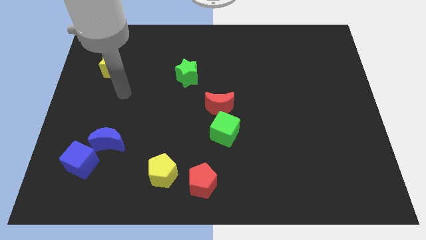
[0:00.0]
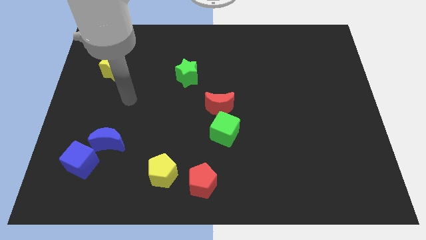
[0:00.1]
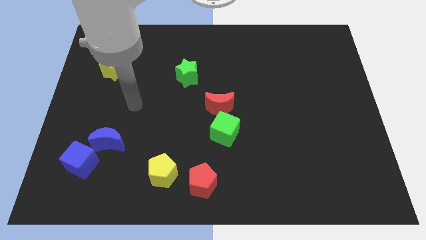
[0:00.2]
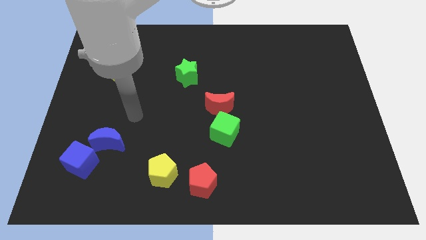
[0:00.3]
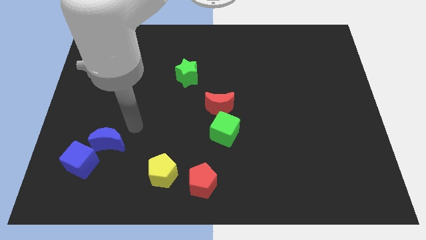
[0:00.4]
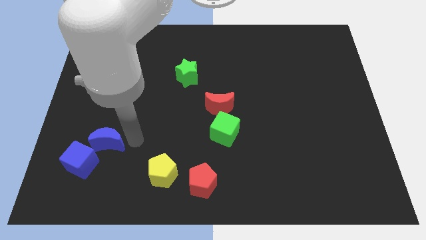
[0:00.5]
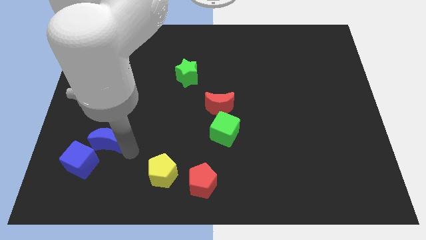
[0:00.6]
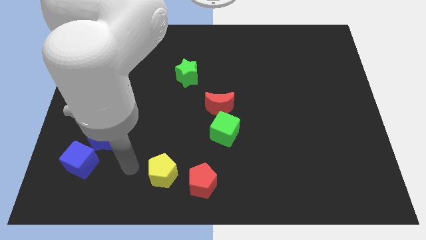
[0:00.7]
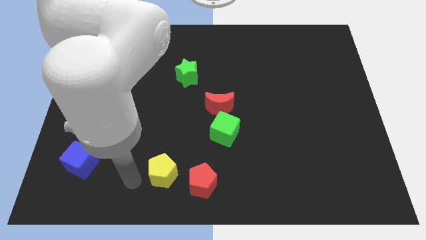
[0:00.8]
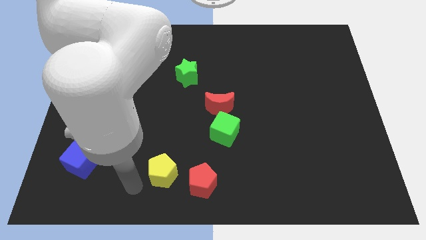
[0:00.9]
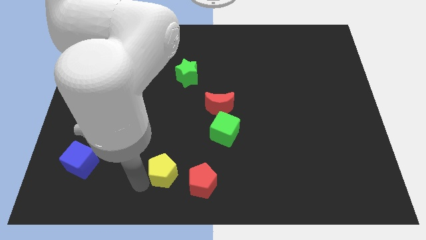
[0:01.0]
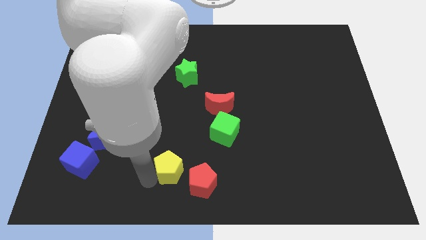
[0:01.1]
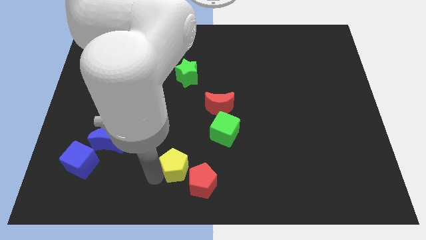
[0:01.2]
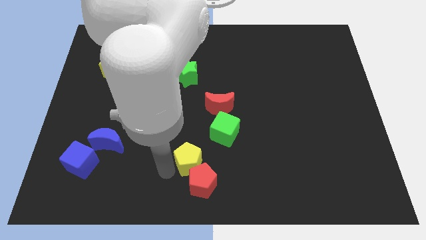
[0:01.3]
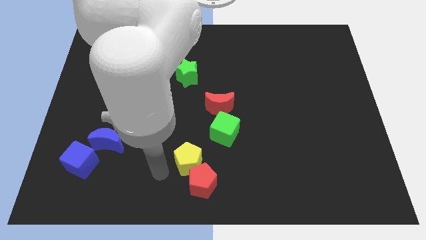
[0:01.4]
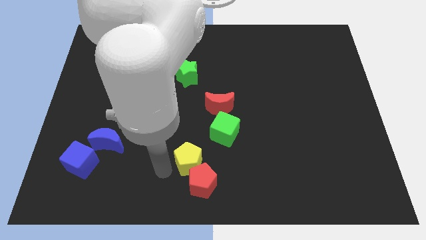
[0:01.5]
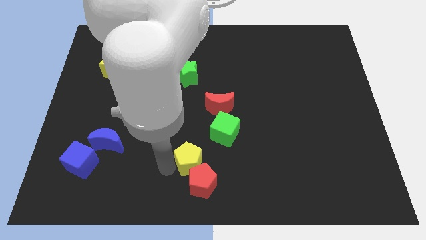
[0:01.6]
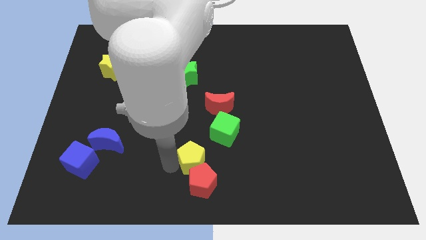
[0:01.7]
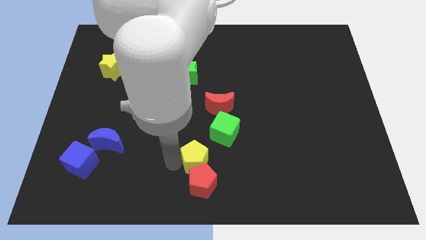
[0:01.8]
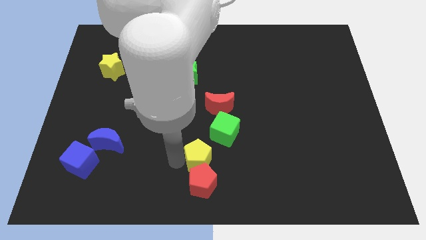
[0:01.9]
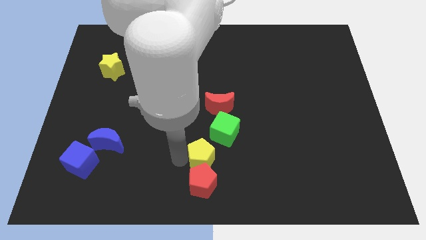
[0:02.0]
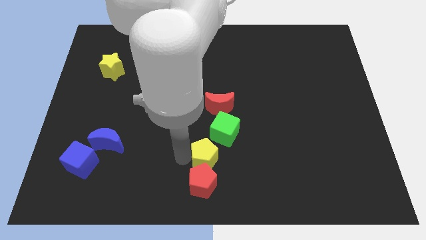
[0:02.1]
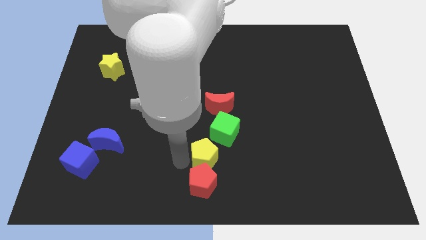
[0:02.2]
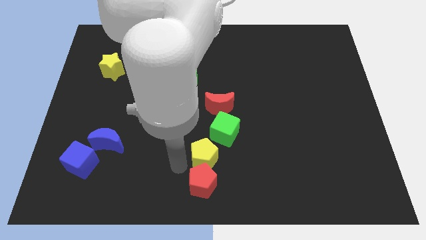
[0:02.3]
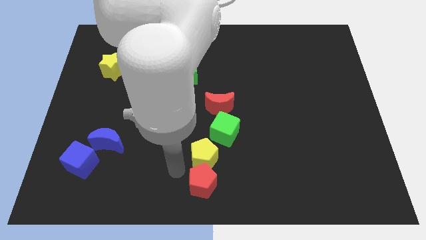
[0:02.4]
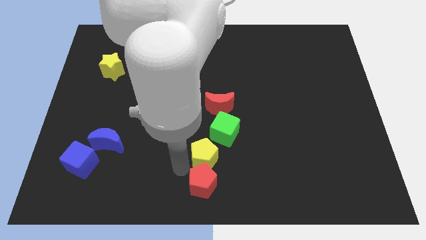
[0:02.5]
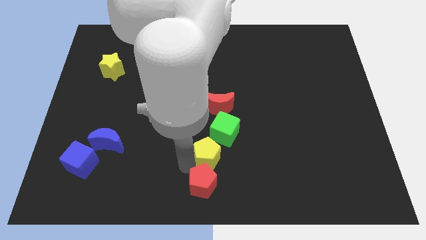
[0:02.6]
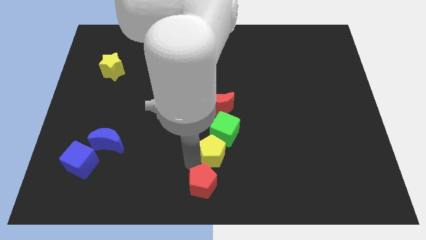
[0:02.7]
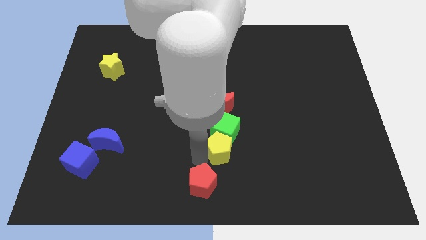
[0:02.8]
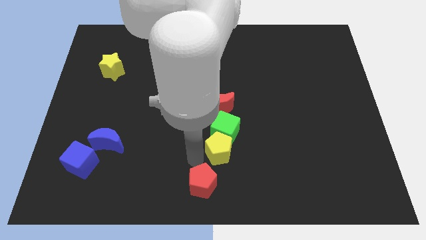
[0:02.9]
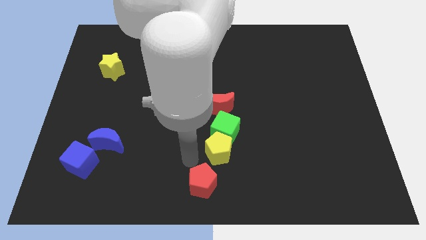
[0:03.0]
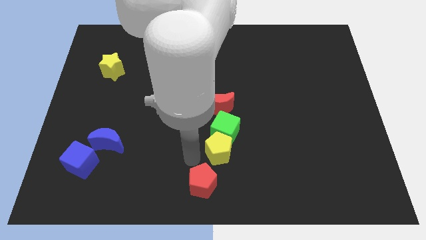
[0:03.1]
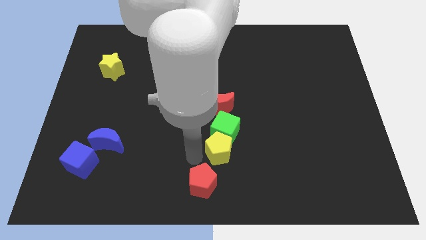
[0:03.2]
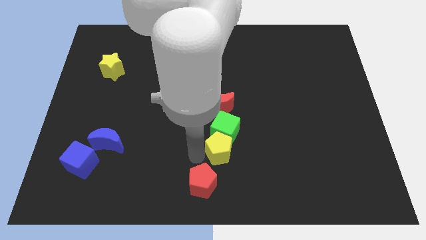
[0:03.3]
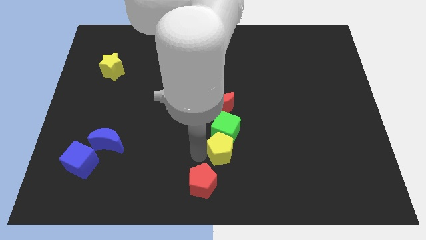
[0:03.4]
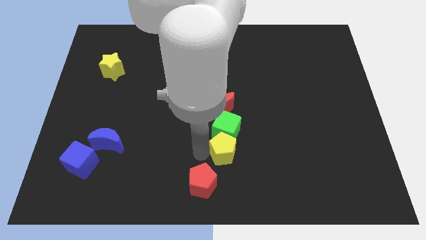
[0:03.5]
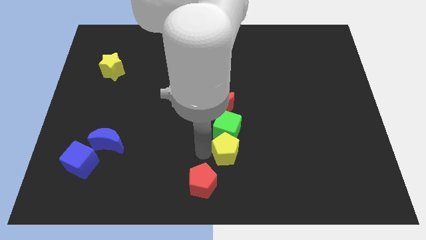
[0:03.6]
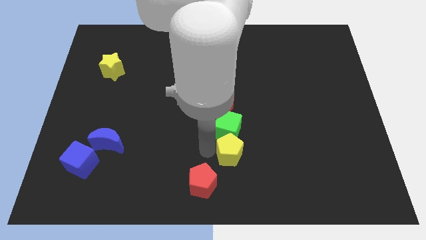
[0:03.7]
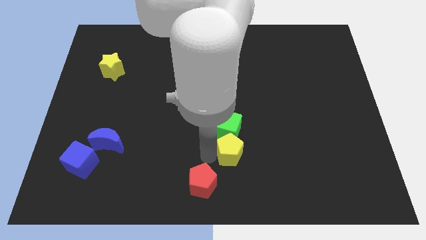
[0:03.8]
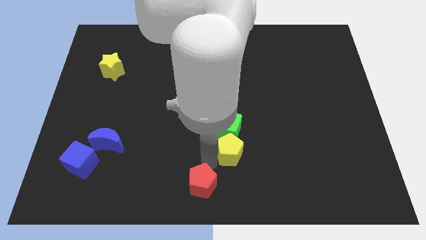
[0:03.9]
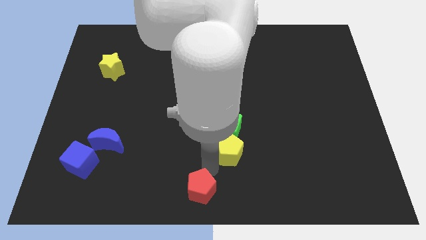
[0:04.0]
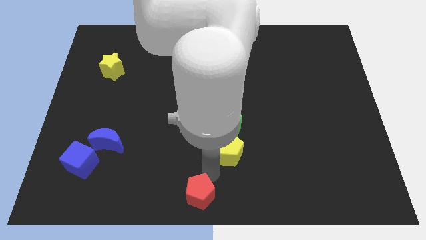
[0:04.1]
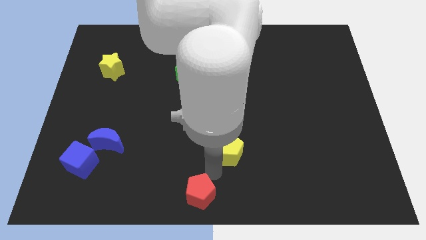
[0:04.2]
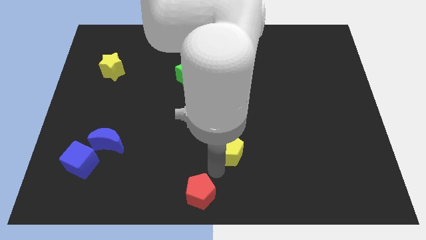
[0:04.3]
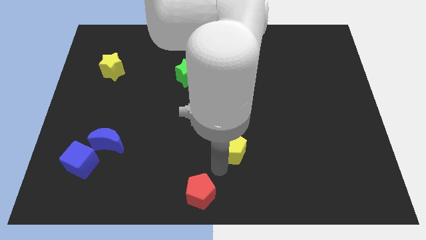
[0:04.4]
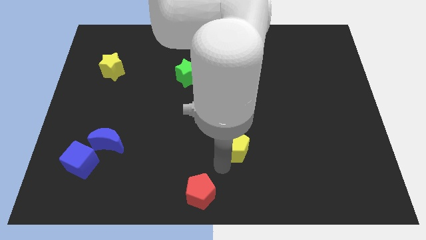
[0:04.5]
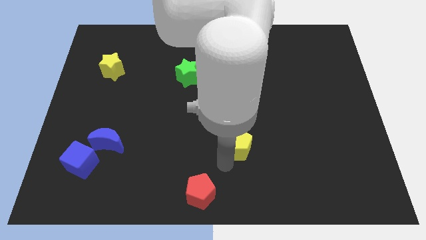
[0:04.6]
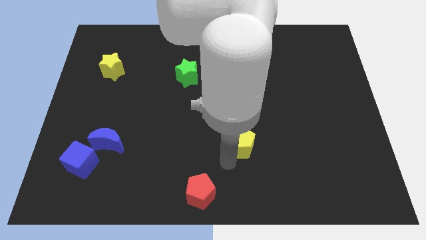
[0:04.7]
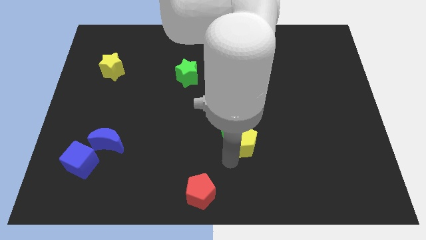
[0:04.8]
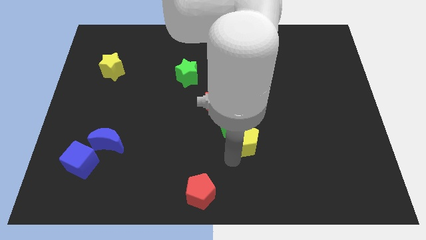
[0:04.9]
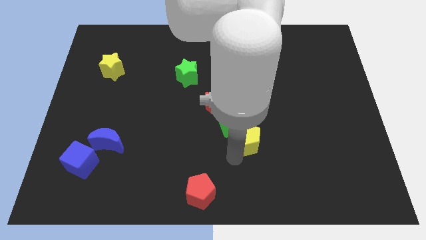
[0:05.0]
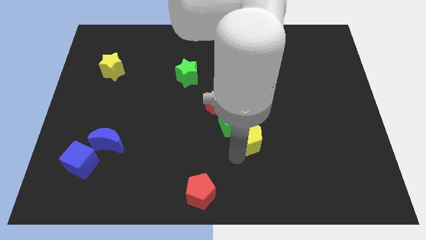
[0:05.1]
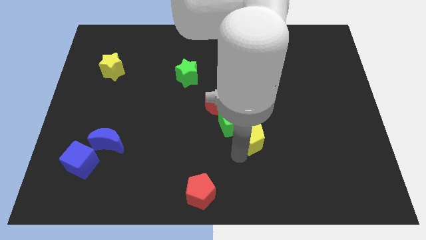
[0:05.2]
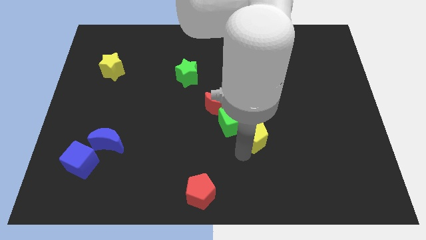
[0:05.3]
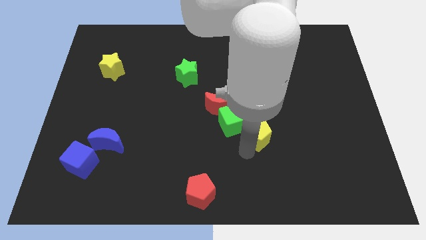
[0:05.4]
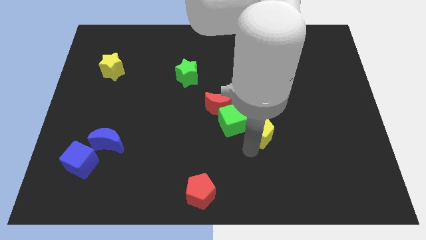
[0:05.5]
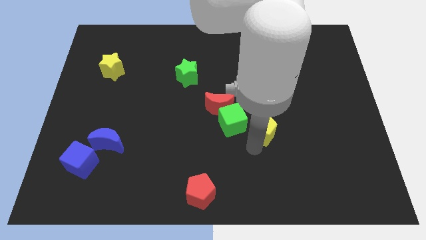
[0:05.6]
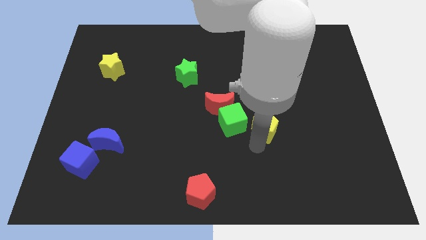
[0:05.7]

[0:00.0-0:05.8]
slide the yellow pentagon upwards and right diagonally

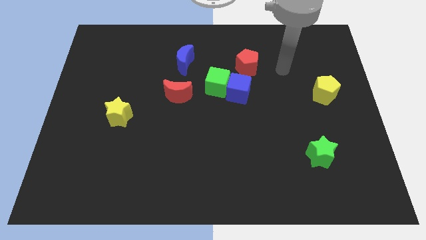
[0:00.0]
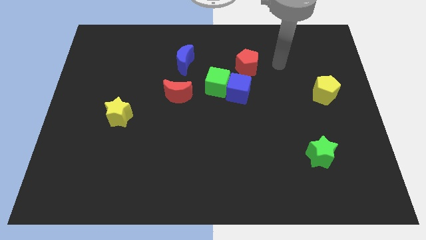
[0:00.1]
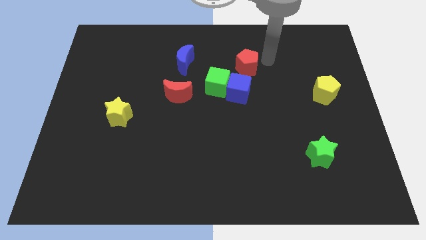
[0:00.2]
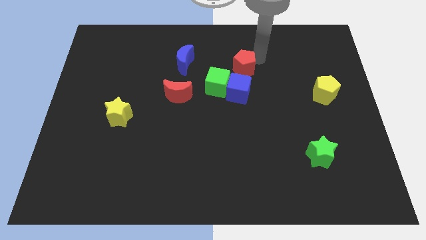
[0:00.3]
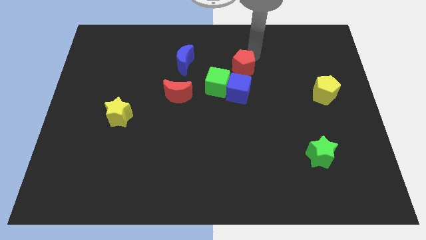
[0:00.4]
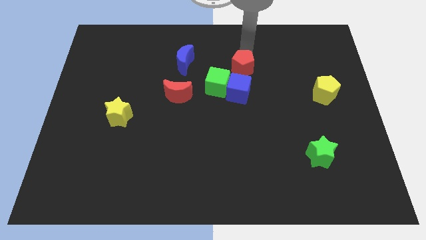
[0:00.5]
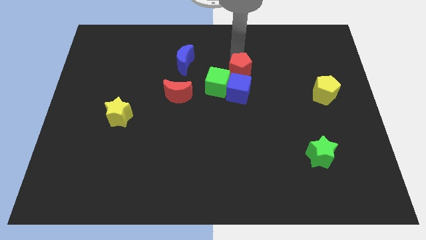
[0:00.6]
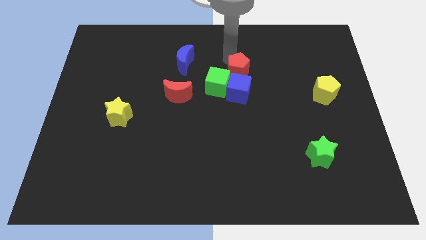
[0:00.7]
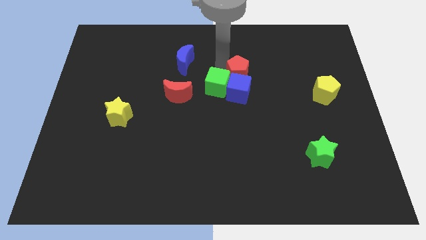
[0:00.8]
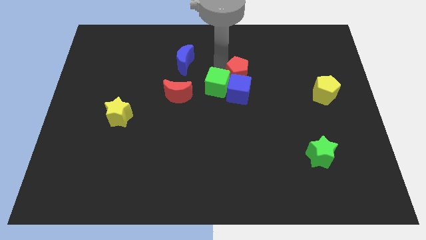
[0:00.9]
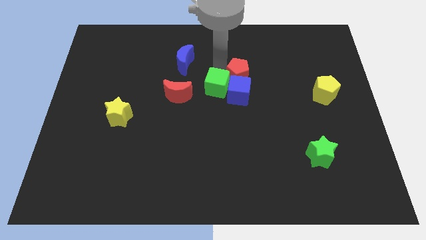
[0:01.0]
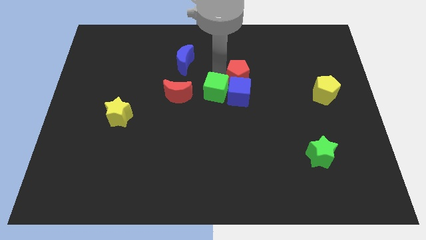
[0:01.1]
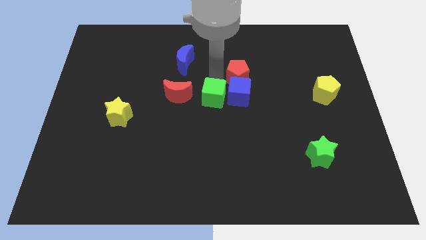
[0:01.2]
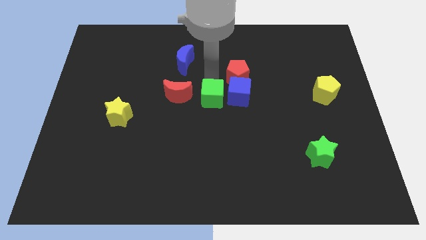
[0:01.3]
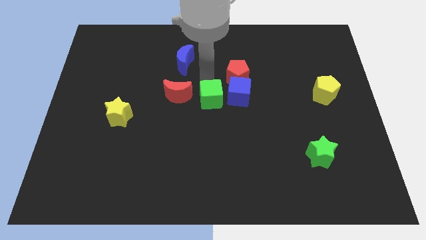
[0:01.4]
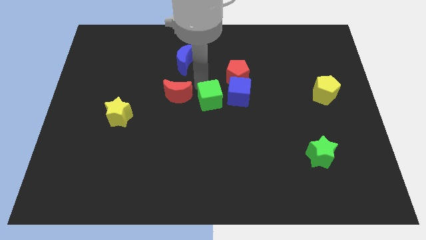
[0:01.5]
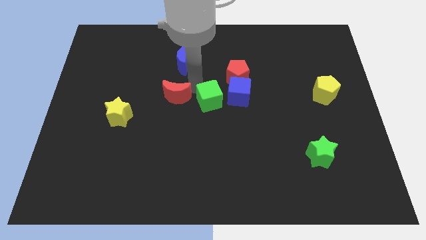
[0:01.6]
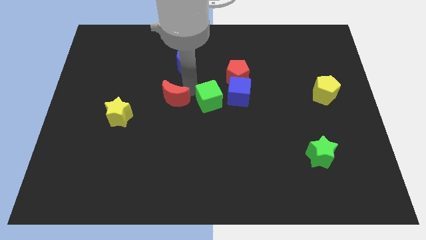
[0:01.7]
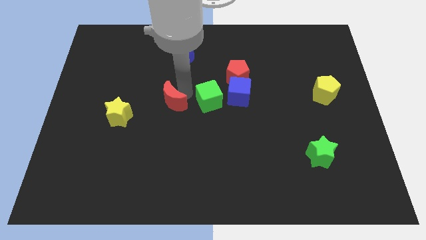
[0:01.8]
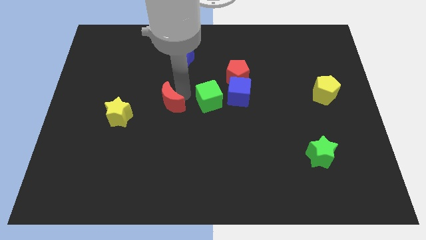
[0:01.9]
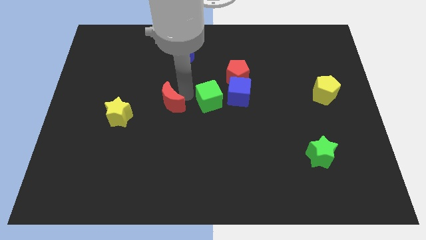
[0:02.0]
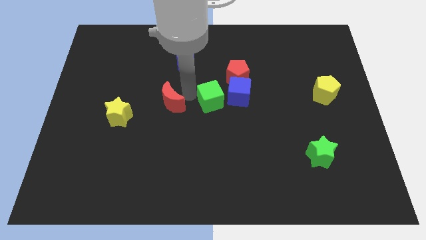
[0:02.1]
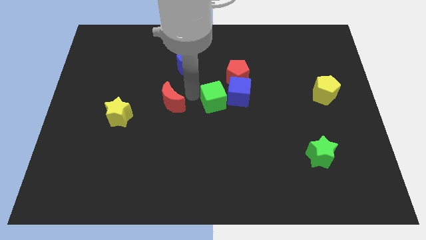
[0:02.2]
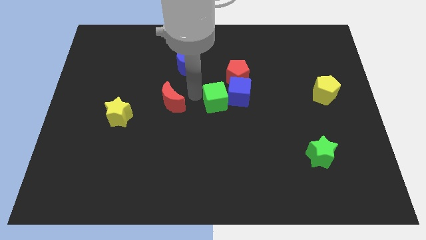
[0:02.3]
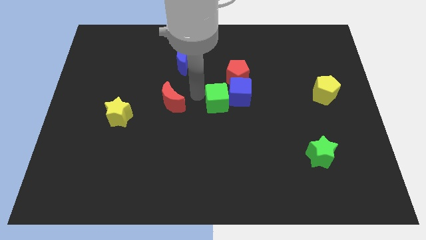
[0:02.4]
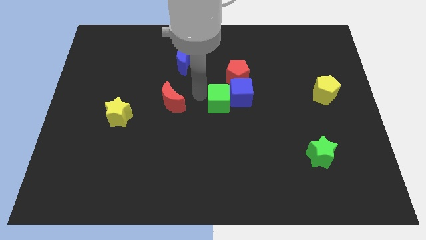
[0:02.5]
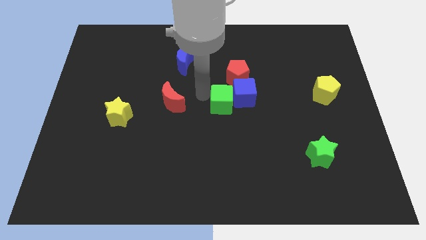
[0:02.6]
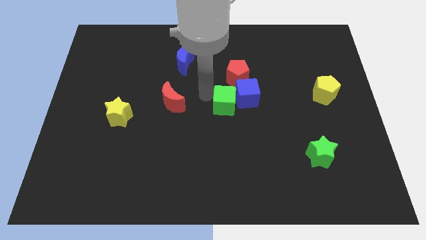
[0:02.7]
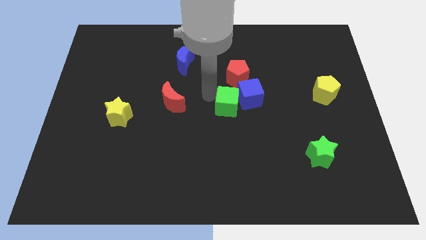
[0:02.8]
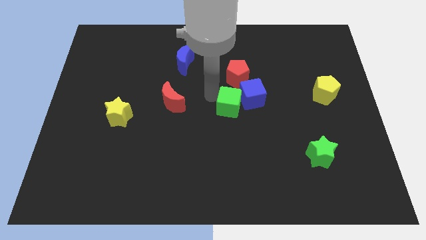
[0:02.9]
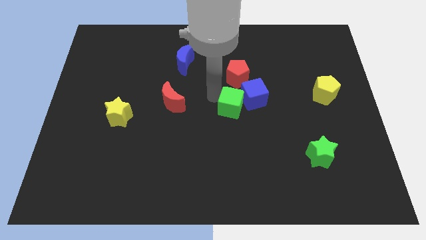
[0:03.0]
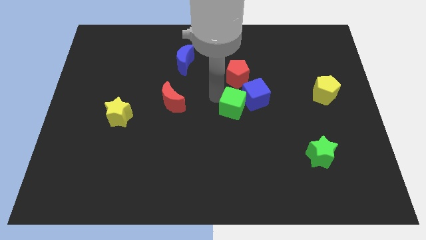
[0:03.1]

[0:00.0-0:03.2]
push the green cube slightly downwards and then to the right
